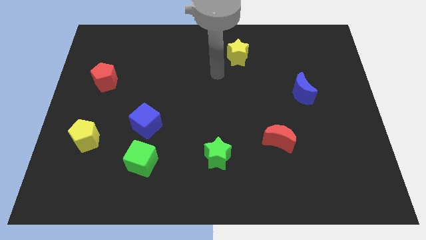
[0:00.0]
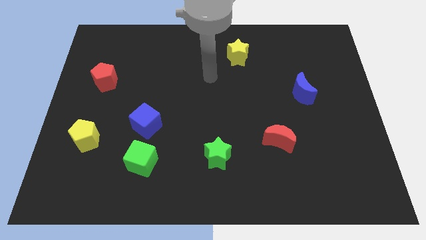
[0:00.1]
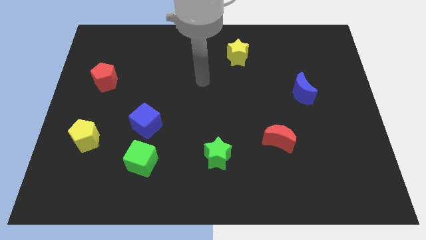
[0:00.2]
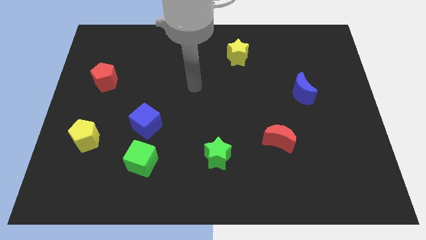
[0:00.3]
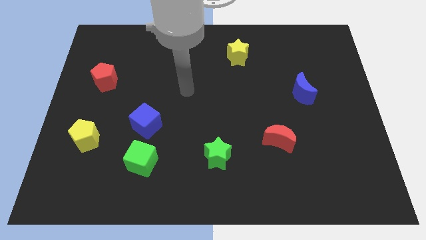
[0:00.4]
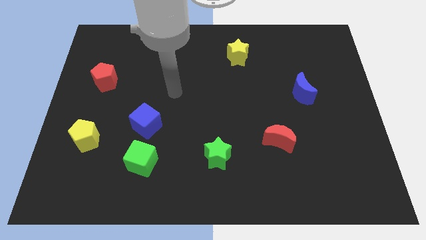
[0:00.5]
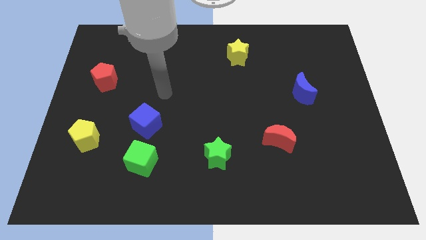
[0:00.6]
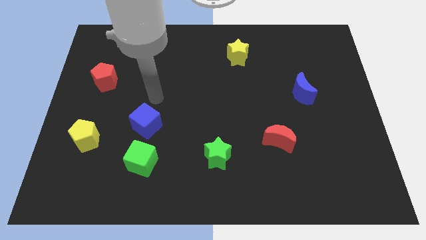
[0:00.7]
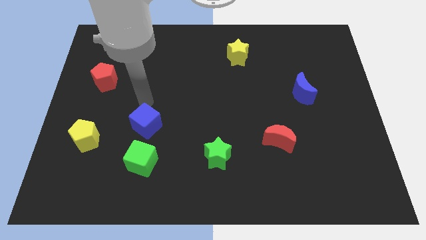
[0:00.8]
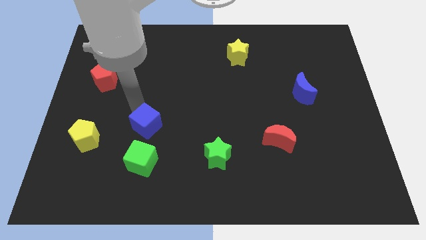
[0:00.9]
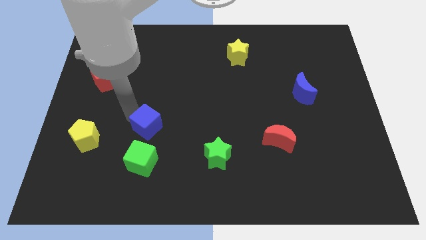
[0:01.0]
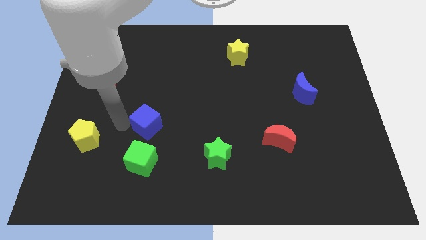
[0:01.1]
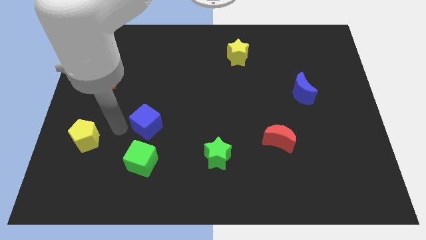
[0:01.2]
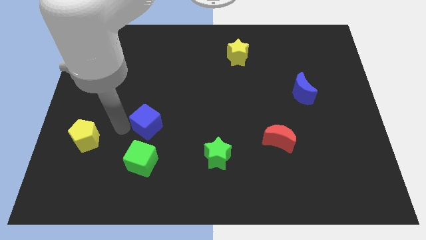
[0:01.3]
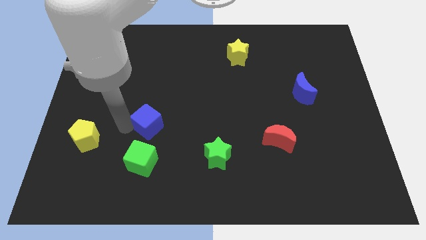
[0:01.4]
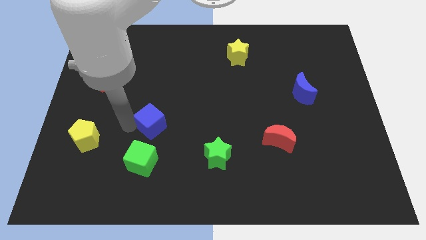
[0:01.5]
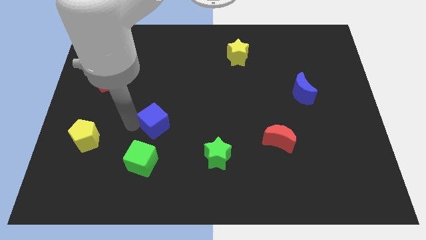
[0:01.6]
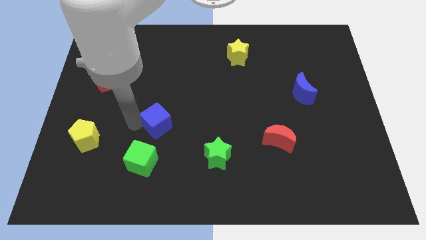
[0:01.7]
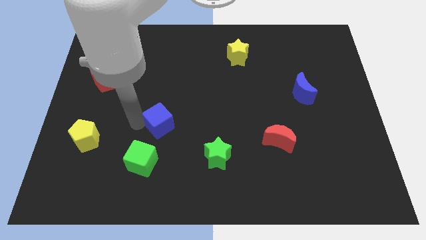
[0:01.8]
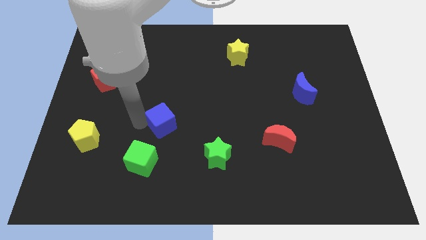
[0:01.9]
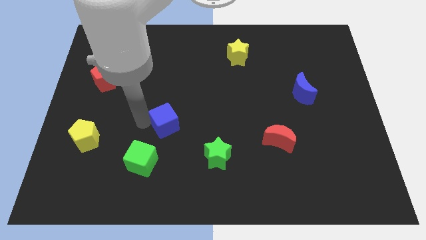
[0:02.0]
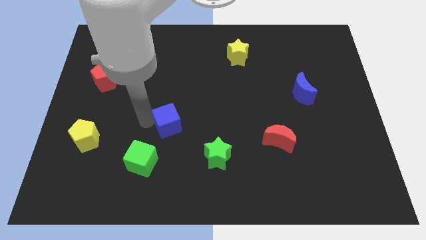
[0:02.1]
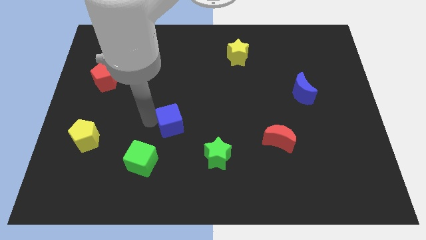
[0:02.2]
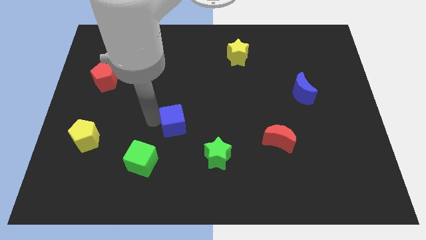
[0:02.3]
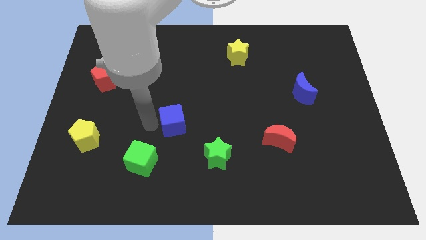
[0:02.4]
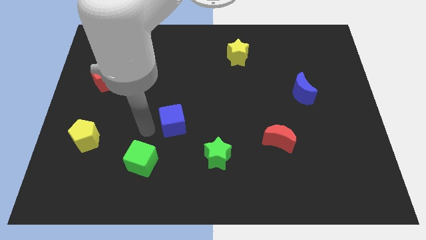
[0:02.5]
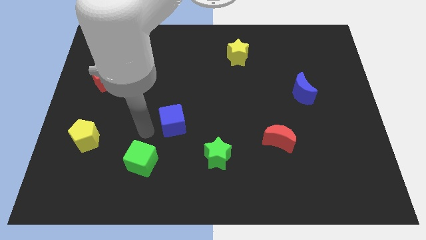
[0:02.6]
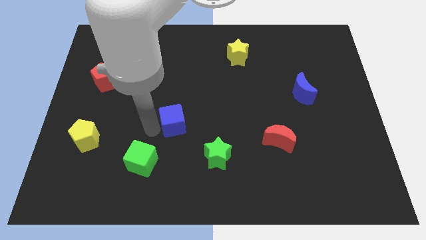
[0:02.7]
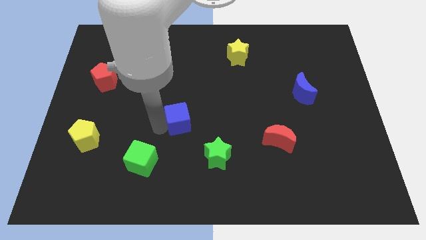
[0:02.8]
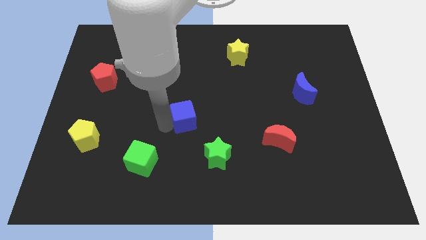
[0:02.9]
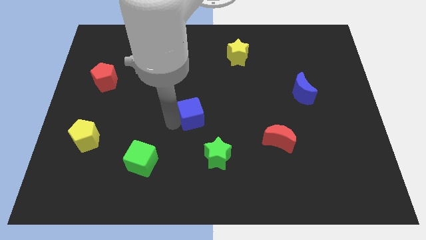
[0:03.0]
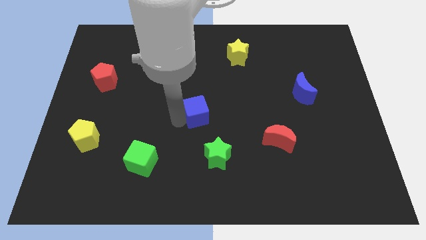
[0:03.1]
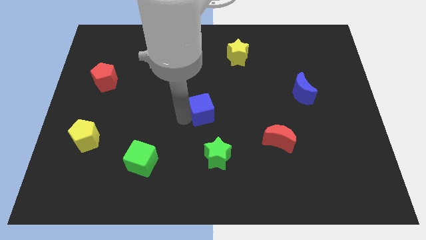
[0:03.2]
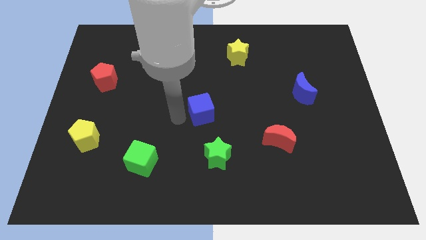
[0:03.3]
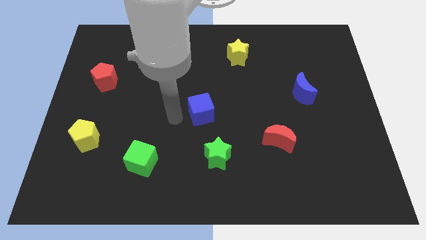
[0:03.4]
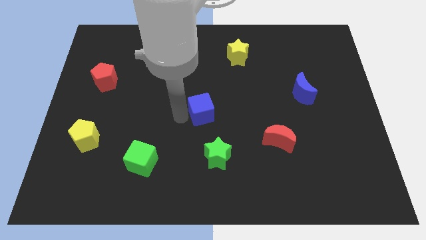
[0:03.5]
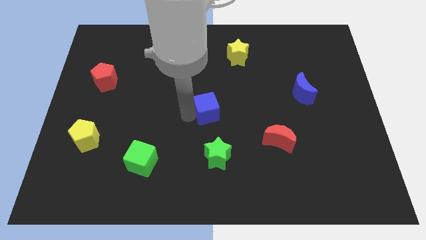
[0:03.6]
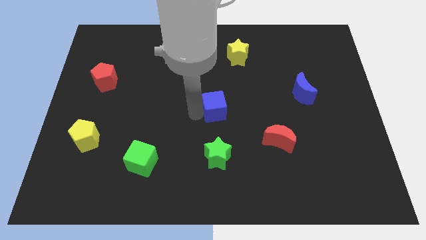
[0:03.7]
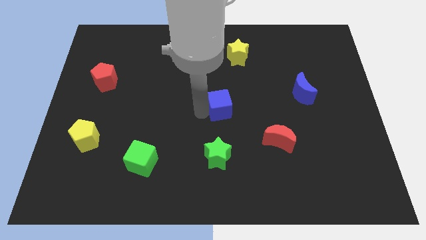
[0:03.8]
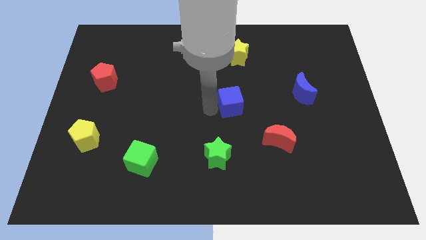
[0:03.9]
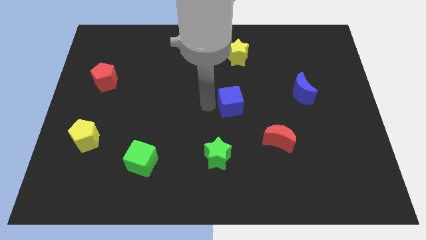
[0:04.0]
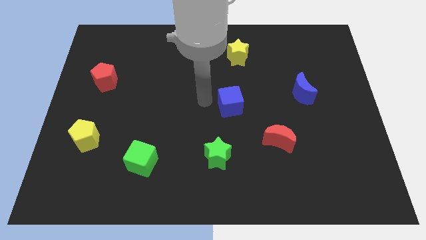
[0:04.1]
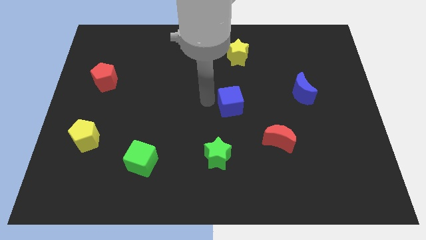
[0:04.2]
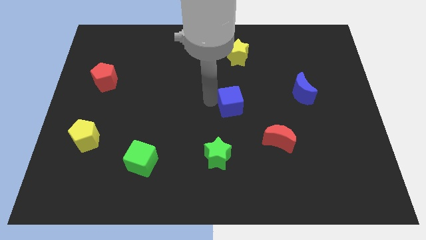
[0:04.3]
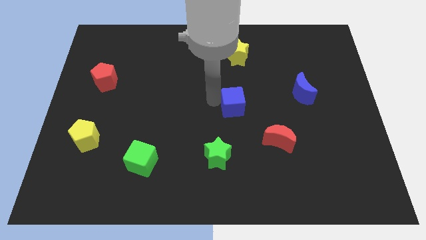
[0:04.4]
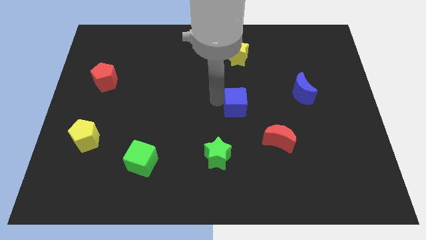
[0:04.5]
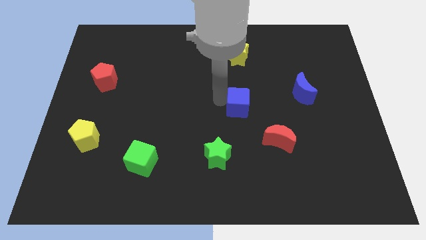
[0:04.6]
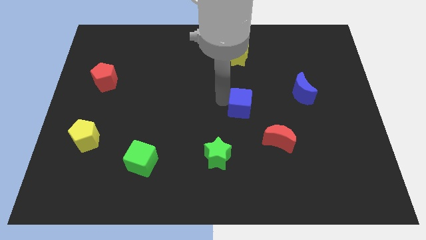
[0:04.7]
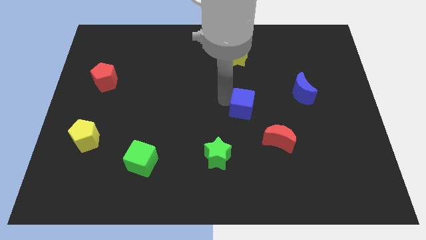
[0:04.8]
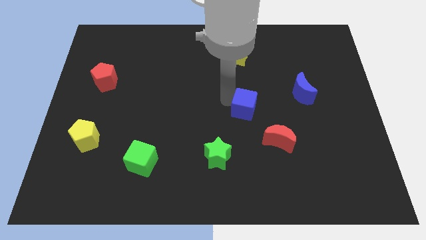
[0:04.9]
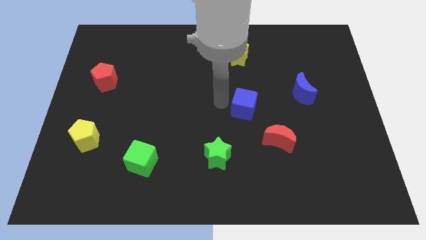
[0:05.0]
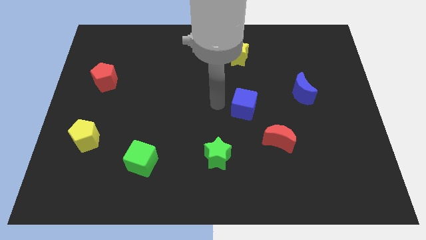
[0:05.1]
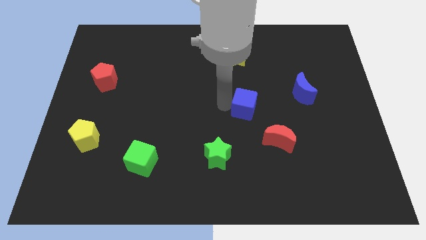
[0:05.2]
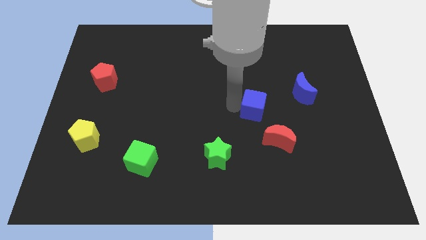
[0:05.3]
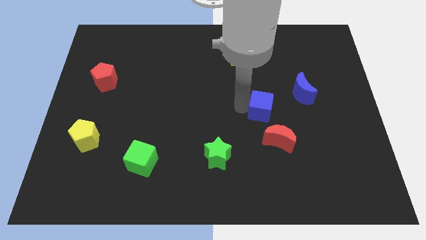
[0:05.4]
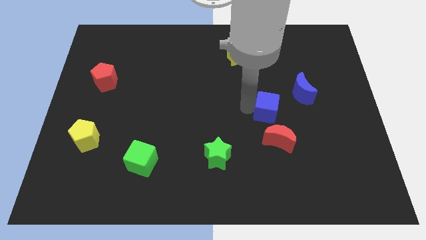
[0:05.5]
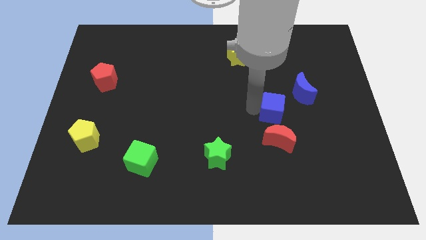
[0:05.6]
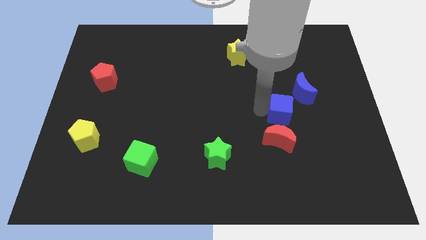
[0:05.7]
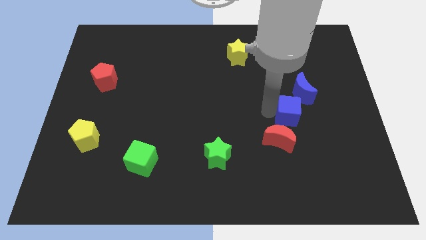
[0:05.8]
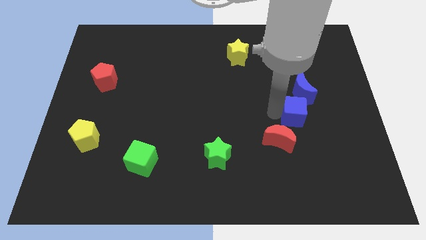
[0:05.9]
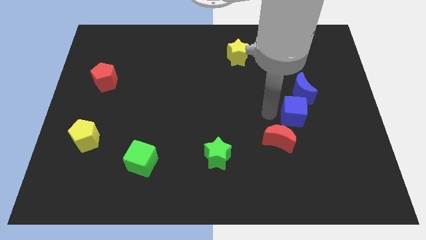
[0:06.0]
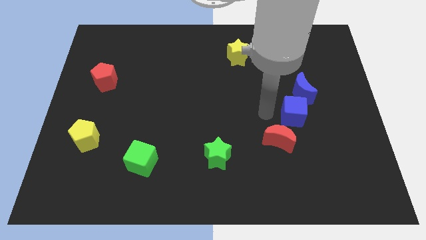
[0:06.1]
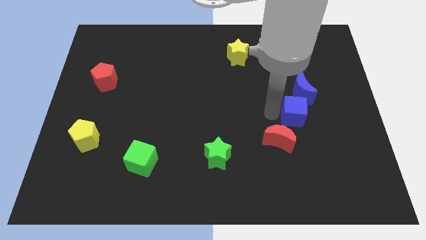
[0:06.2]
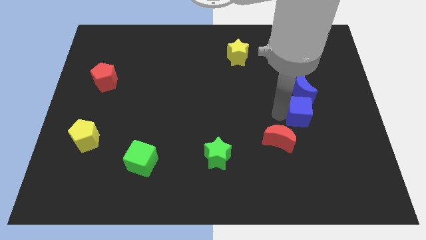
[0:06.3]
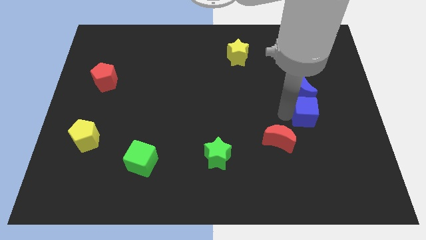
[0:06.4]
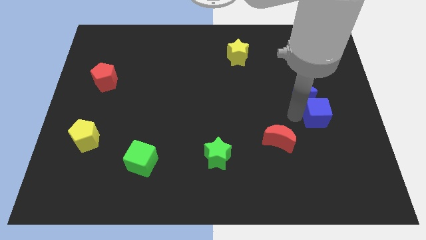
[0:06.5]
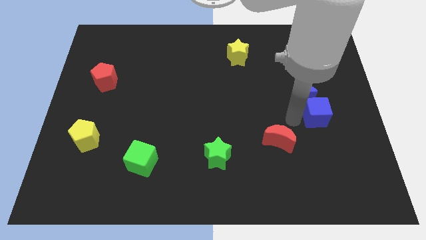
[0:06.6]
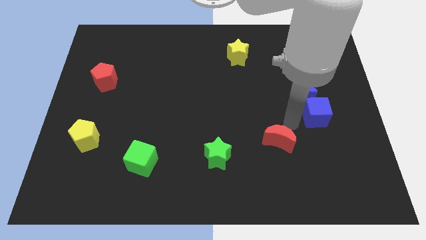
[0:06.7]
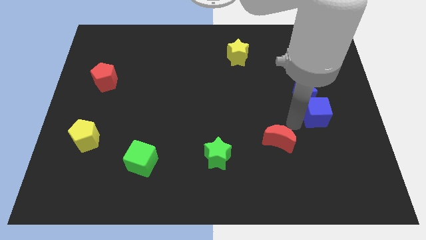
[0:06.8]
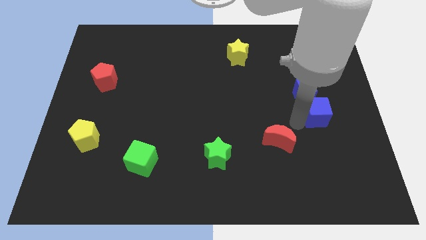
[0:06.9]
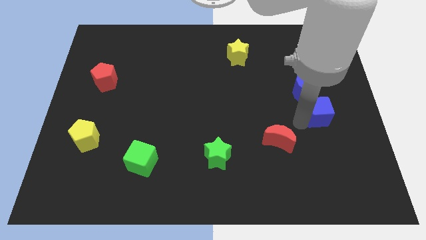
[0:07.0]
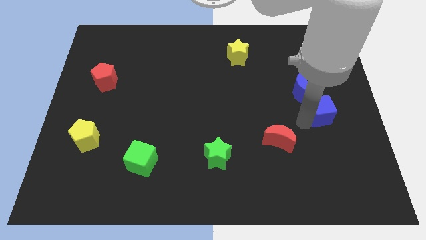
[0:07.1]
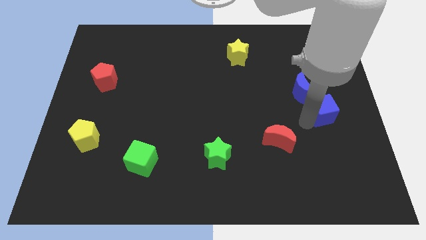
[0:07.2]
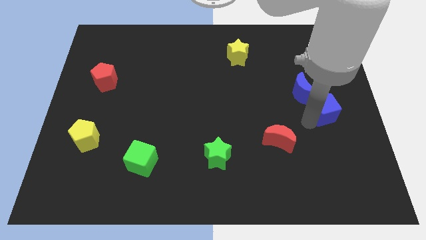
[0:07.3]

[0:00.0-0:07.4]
put the blue cube to the center right

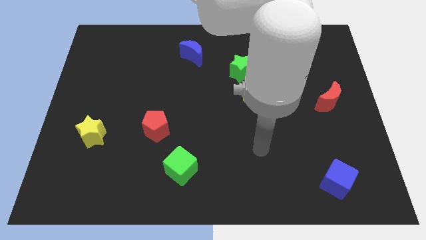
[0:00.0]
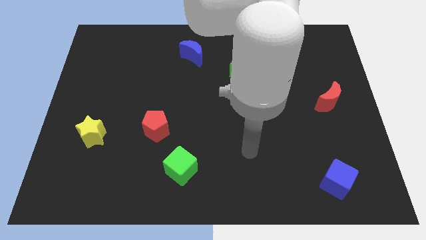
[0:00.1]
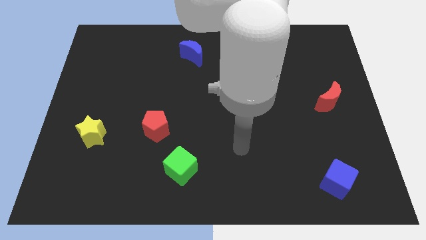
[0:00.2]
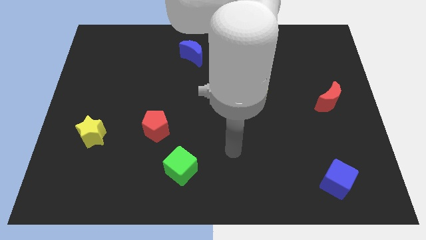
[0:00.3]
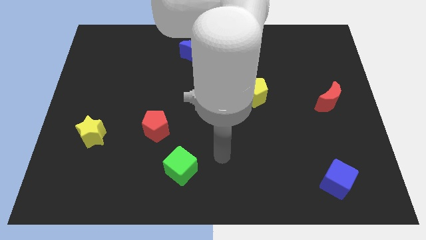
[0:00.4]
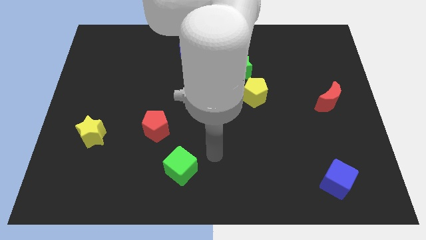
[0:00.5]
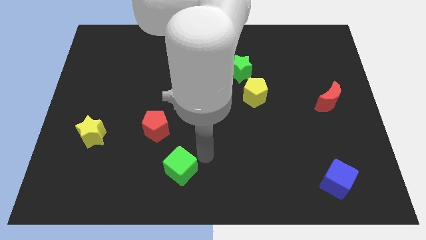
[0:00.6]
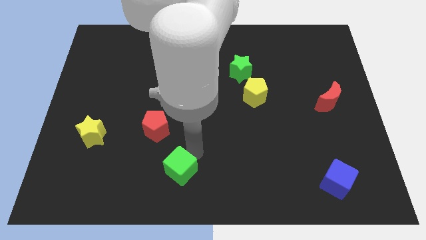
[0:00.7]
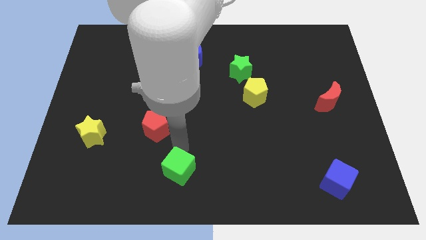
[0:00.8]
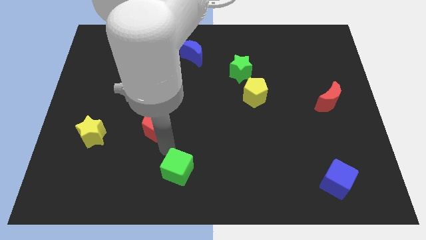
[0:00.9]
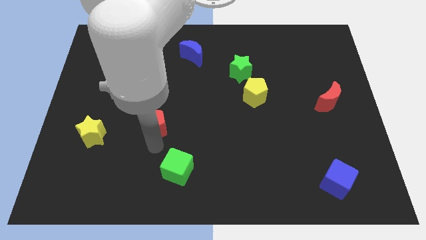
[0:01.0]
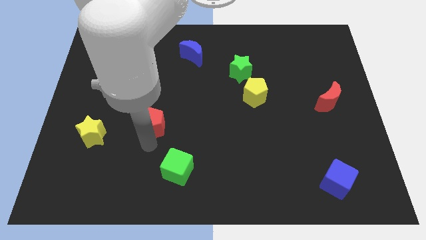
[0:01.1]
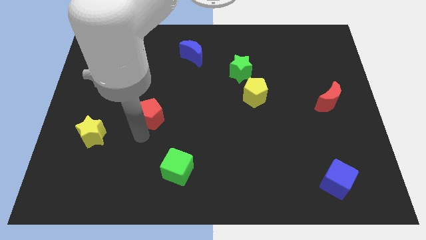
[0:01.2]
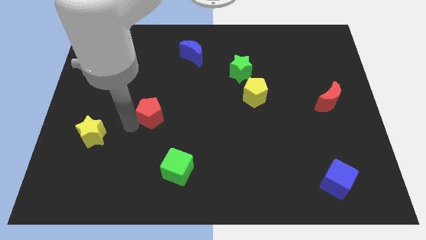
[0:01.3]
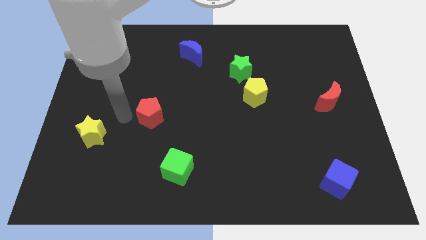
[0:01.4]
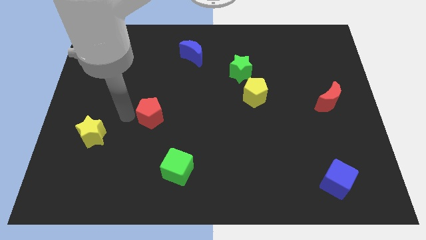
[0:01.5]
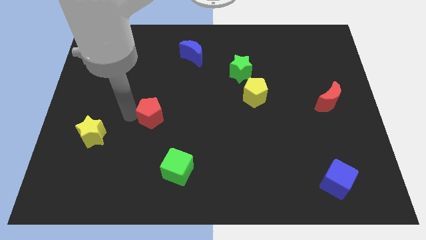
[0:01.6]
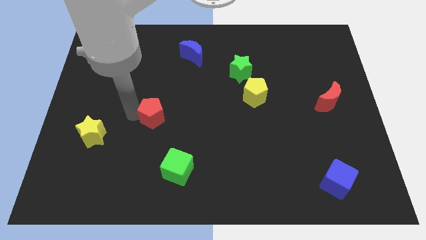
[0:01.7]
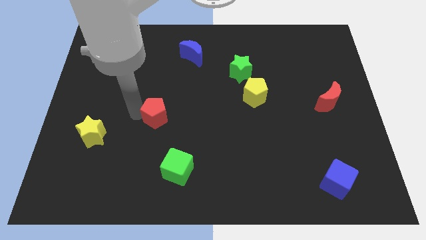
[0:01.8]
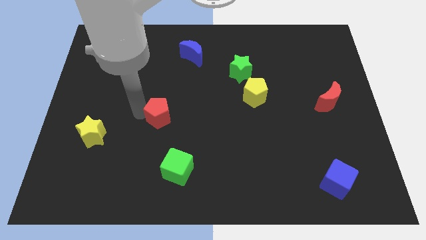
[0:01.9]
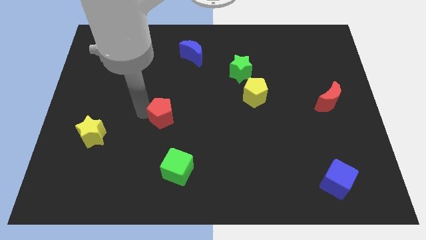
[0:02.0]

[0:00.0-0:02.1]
move the red pentagon to the center
